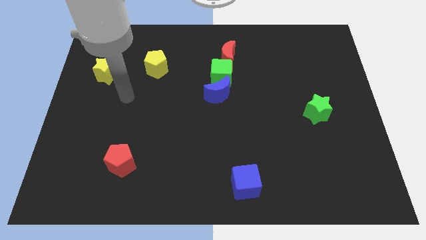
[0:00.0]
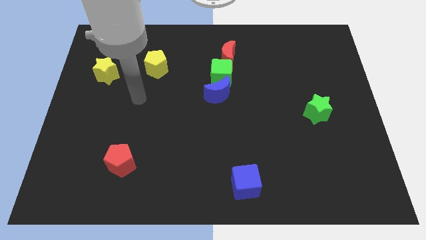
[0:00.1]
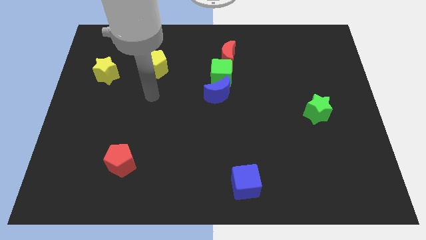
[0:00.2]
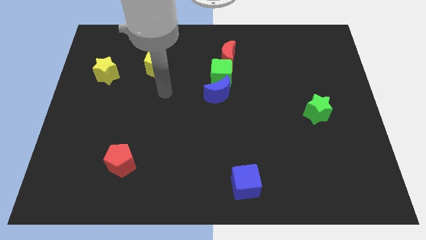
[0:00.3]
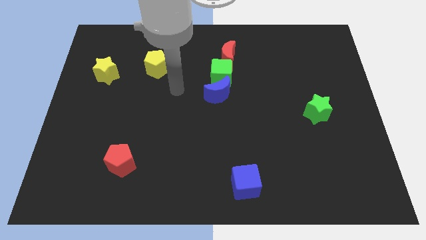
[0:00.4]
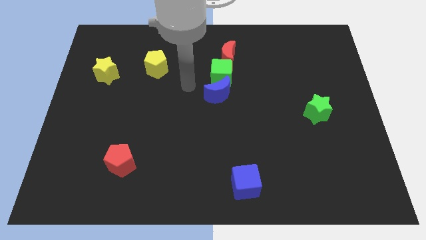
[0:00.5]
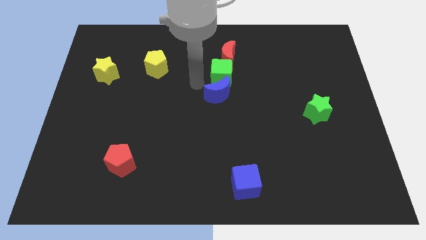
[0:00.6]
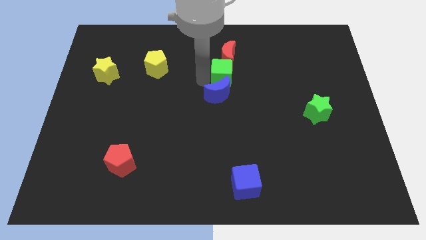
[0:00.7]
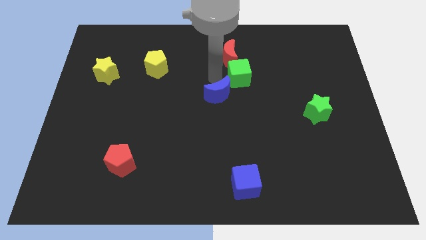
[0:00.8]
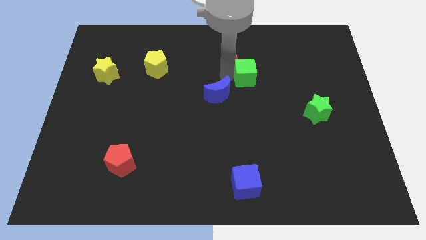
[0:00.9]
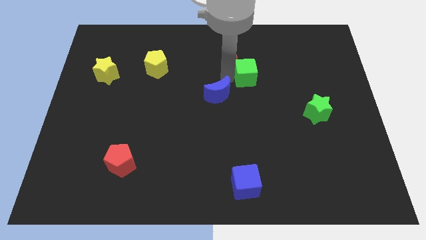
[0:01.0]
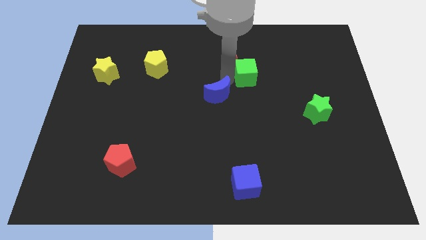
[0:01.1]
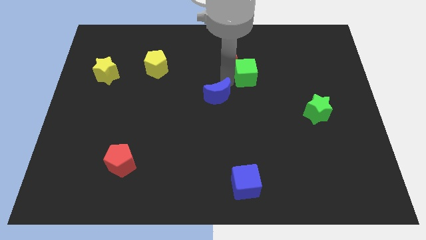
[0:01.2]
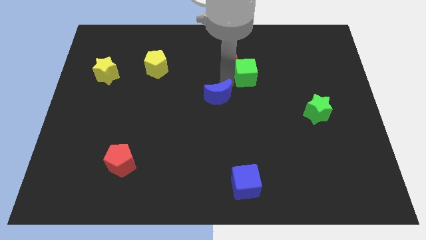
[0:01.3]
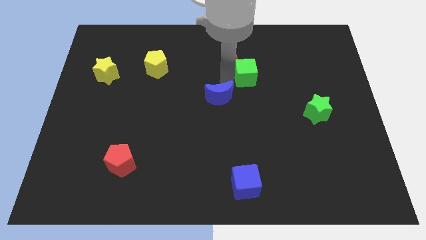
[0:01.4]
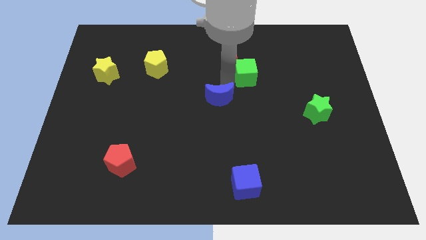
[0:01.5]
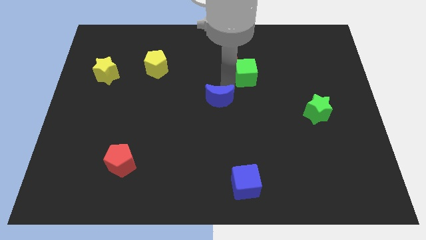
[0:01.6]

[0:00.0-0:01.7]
move the blue moon away from the green cube

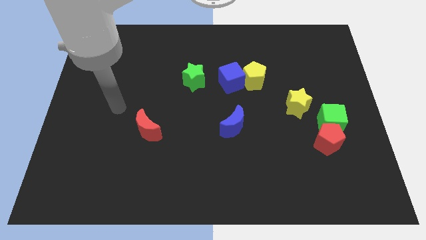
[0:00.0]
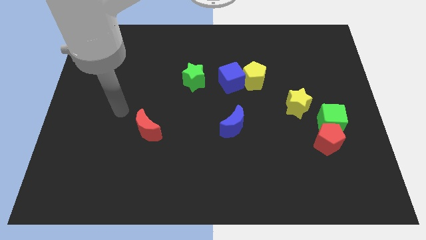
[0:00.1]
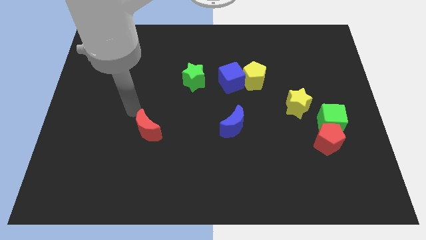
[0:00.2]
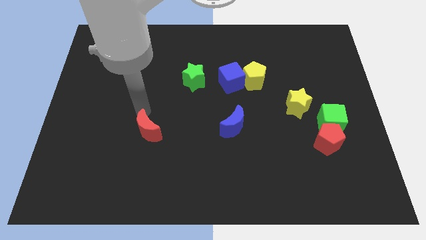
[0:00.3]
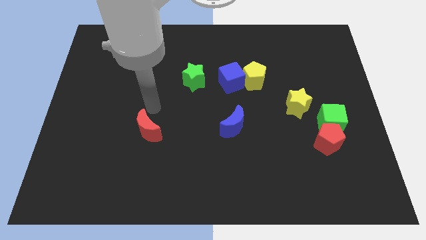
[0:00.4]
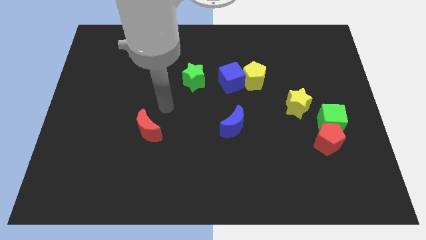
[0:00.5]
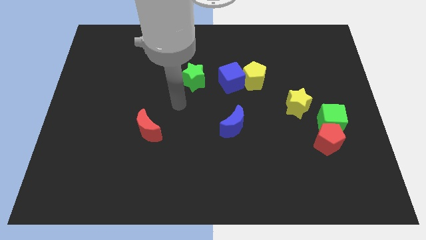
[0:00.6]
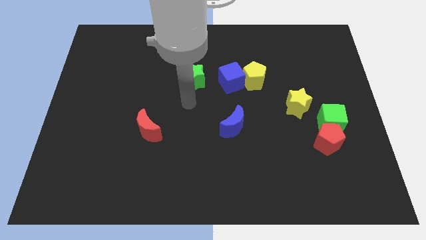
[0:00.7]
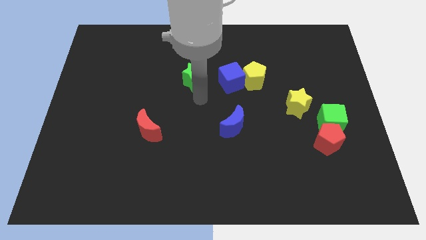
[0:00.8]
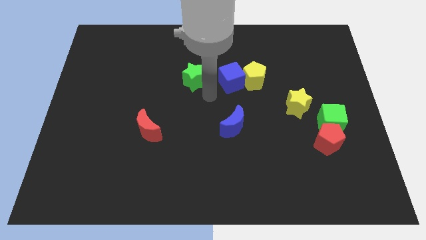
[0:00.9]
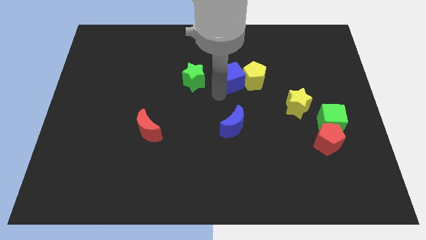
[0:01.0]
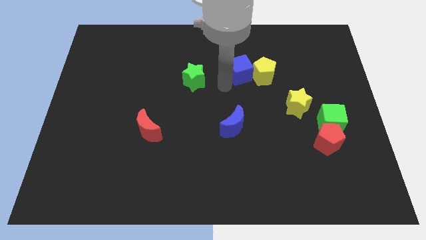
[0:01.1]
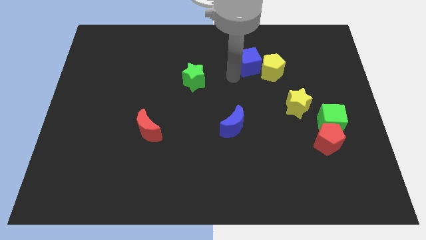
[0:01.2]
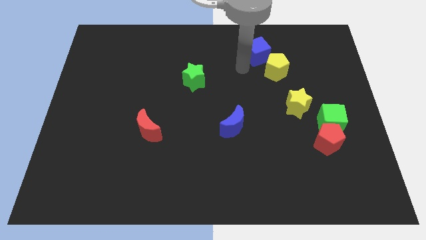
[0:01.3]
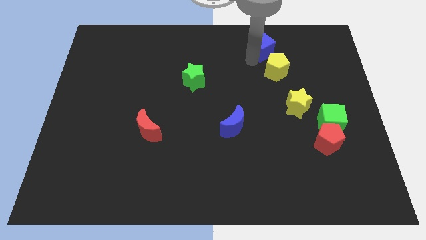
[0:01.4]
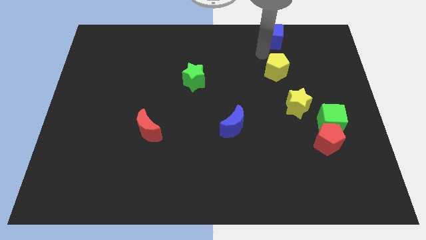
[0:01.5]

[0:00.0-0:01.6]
pull the yellow pentagon apart from the blue cube

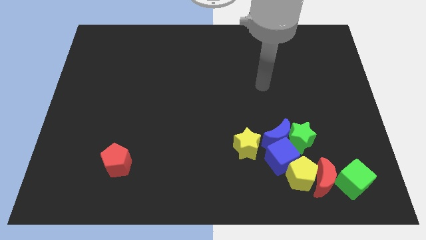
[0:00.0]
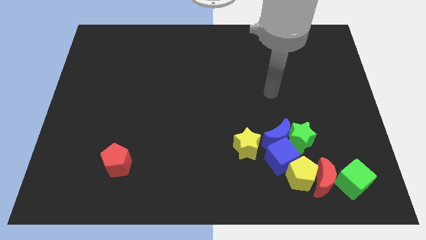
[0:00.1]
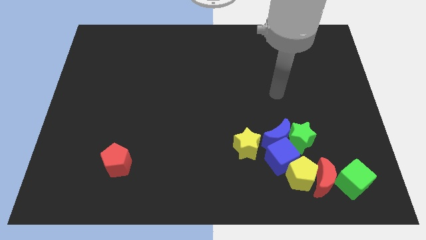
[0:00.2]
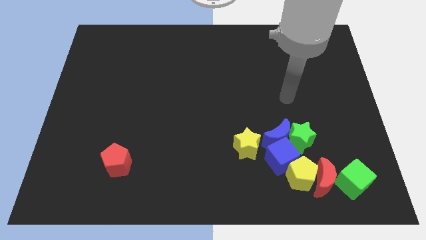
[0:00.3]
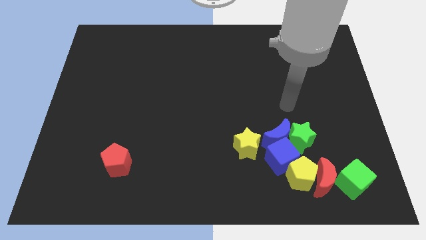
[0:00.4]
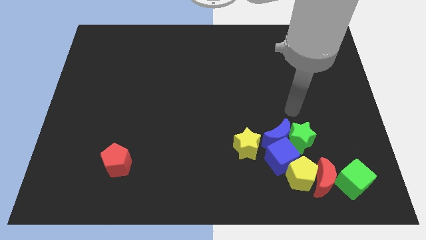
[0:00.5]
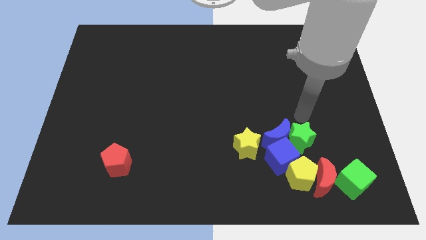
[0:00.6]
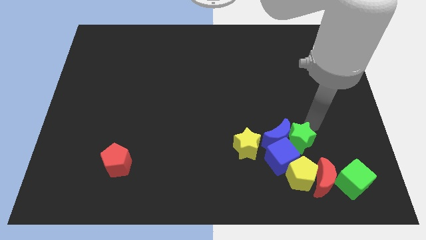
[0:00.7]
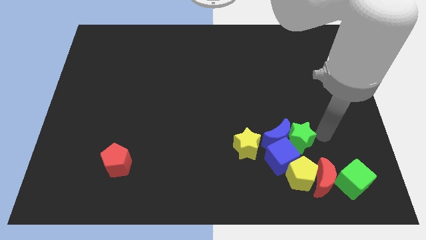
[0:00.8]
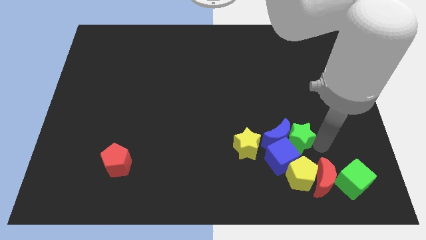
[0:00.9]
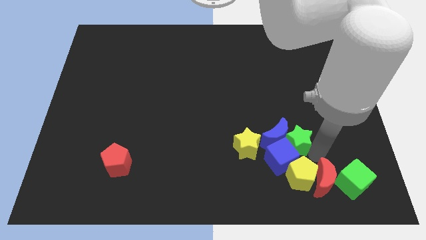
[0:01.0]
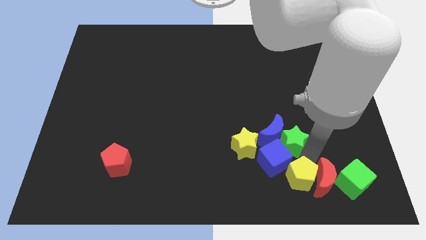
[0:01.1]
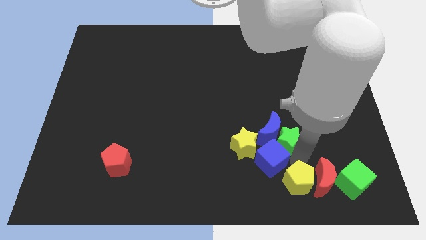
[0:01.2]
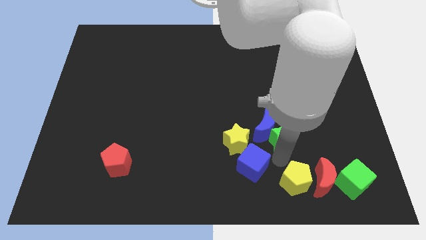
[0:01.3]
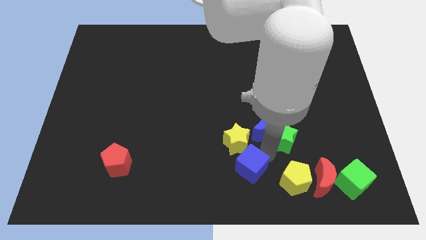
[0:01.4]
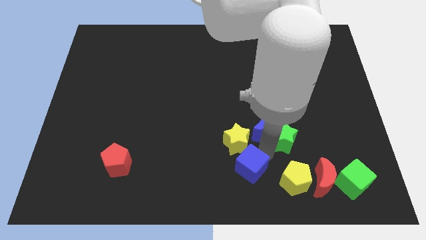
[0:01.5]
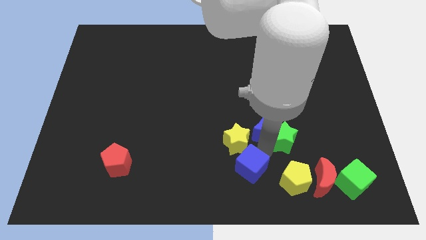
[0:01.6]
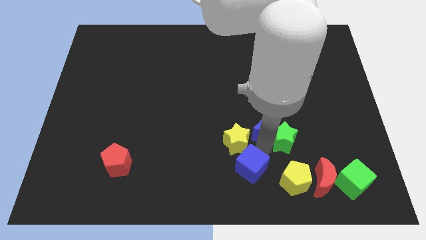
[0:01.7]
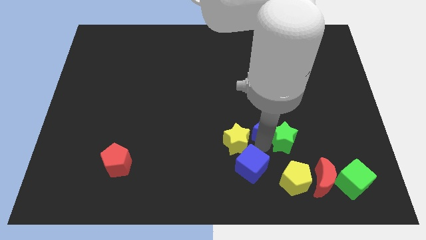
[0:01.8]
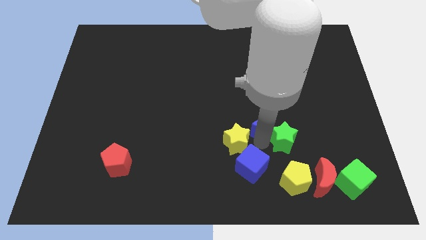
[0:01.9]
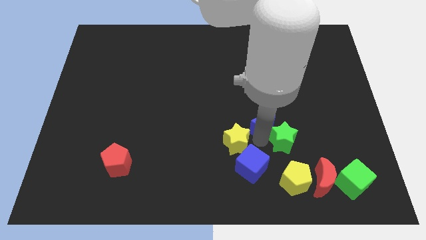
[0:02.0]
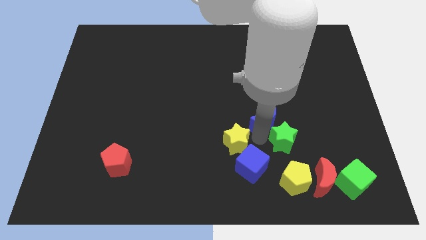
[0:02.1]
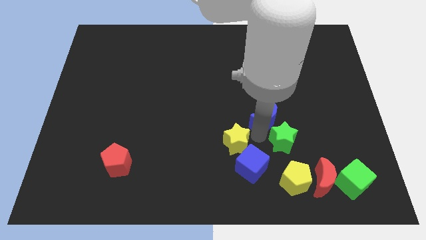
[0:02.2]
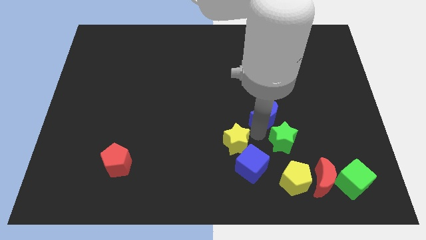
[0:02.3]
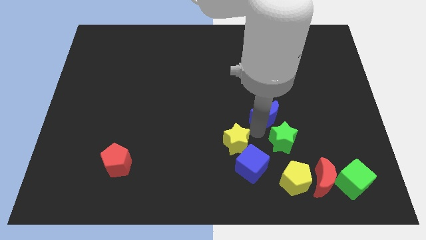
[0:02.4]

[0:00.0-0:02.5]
pull the blue moon apart from the clump

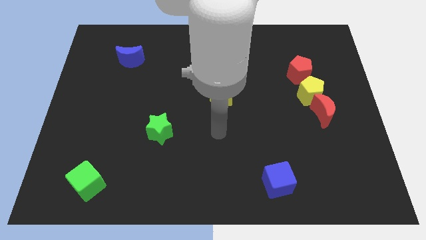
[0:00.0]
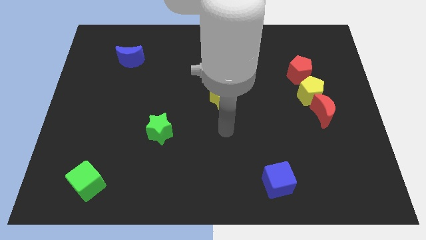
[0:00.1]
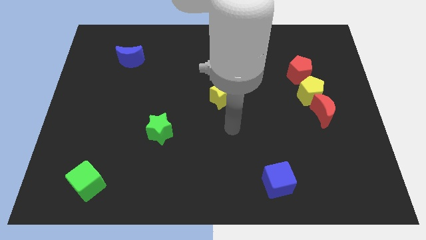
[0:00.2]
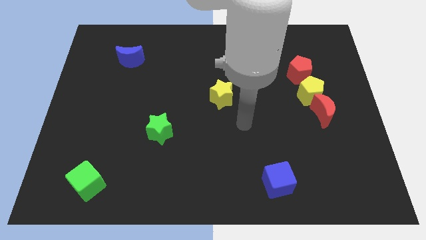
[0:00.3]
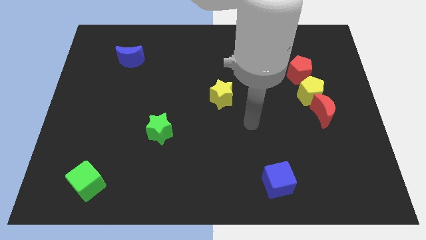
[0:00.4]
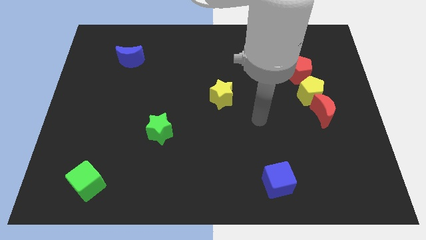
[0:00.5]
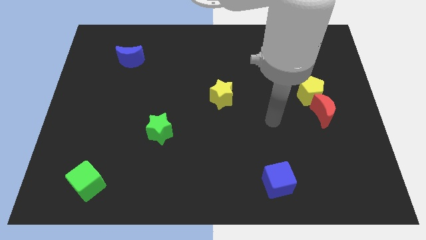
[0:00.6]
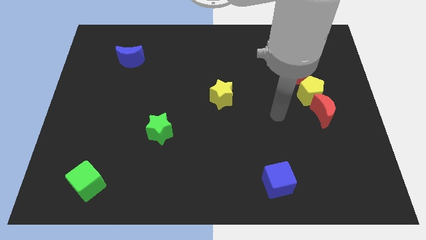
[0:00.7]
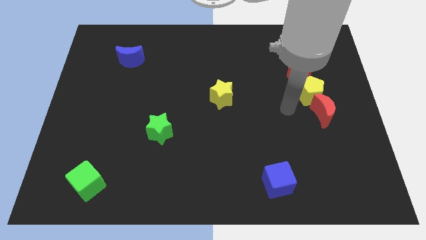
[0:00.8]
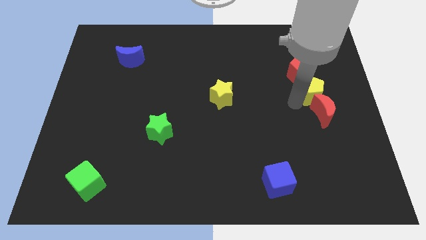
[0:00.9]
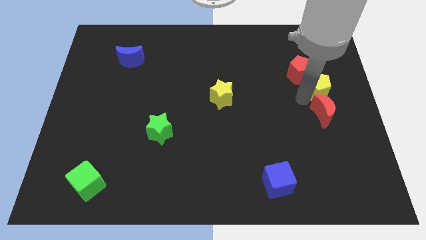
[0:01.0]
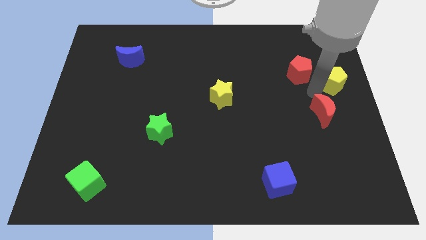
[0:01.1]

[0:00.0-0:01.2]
pull the red moon apart from the yellow pentagon

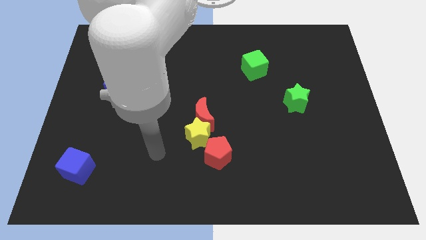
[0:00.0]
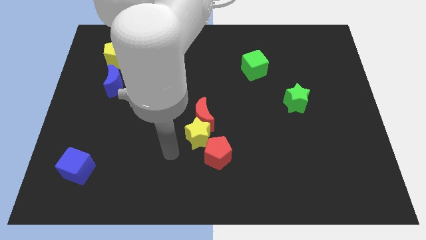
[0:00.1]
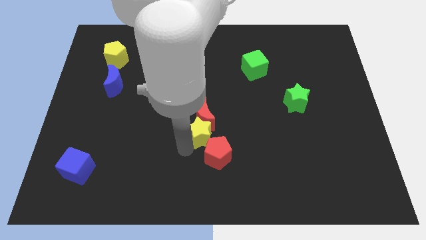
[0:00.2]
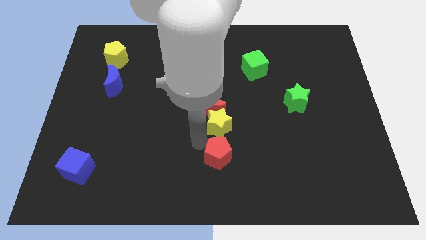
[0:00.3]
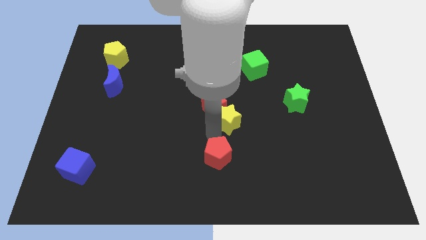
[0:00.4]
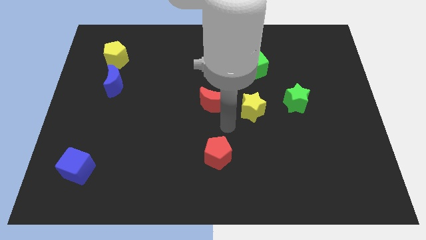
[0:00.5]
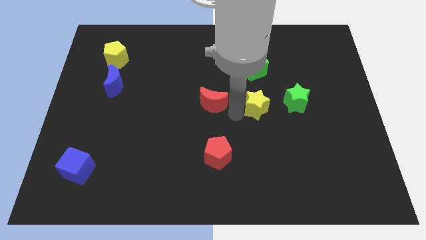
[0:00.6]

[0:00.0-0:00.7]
separate the red moon from the yellow star

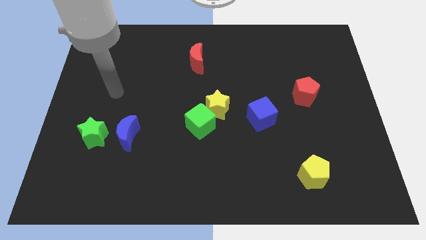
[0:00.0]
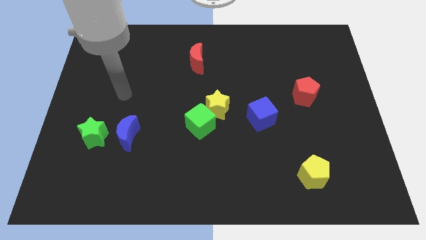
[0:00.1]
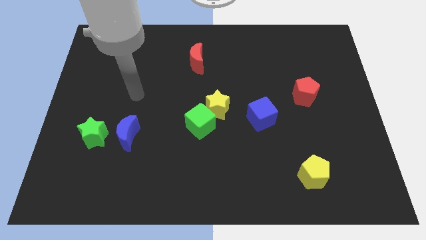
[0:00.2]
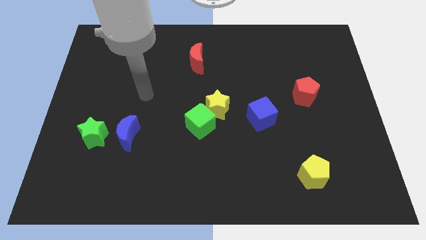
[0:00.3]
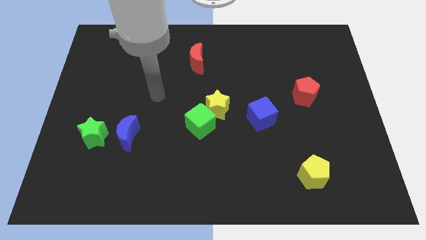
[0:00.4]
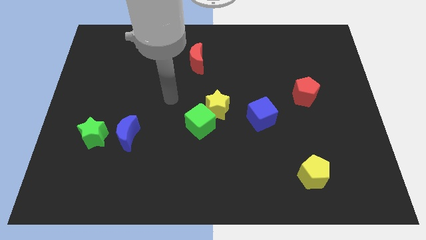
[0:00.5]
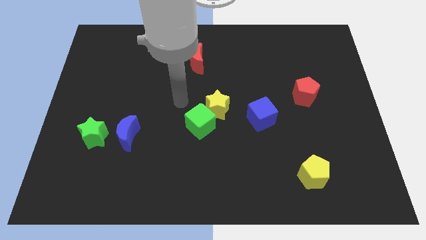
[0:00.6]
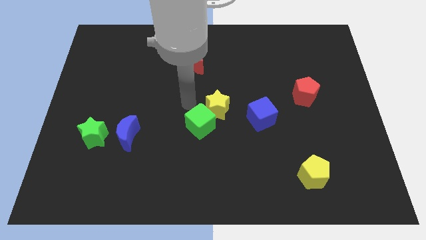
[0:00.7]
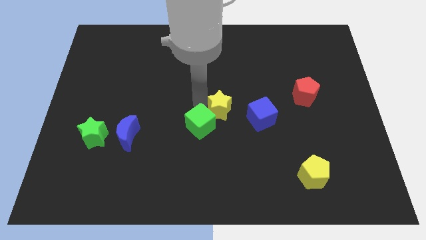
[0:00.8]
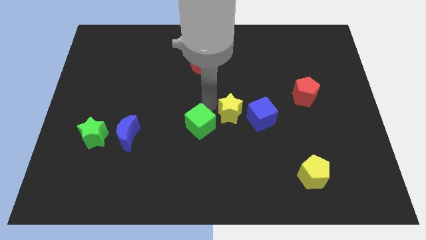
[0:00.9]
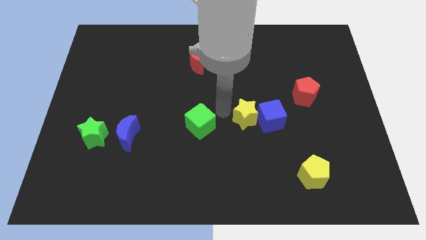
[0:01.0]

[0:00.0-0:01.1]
move the green cube away from the yellow star

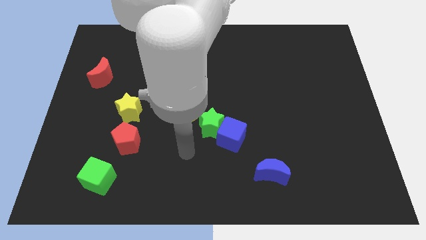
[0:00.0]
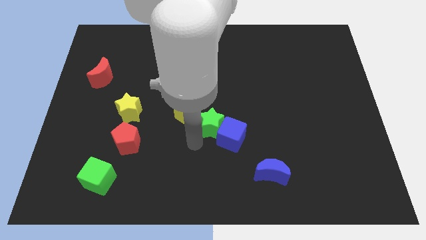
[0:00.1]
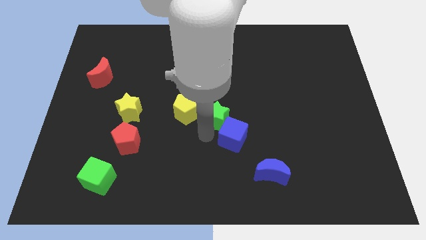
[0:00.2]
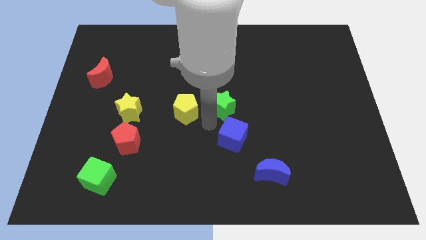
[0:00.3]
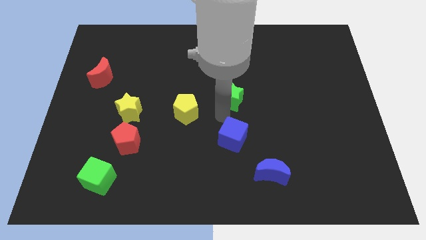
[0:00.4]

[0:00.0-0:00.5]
move the blue cube away from the green star
